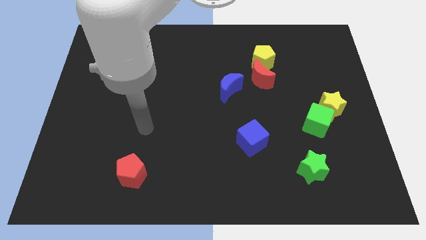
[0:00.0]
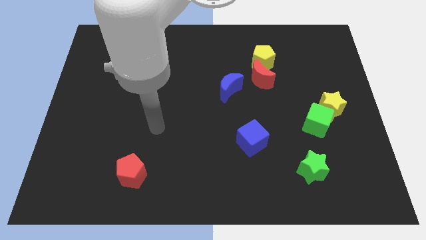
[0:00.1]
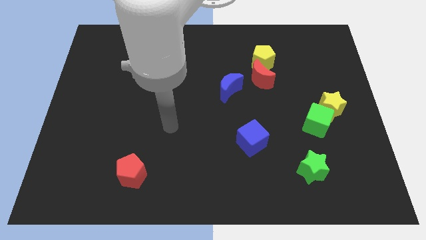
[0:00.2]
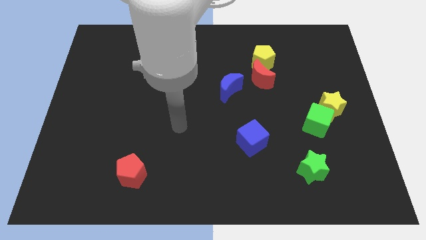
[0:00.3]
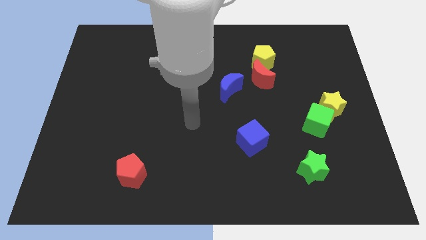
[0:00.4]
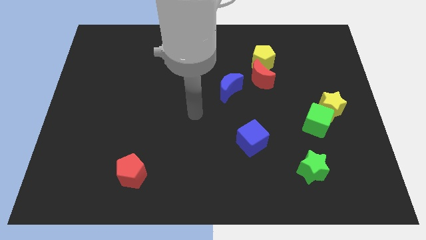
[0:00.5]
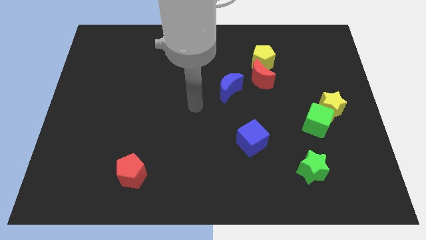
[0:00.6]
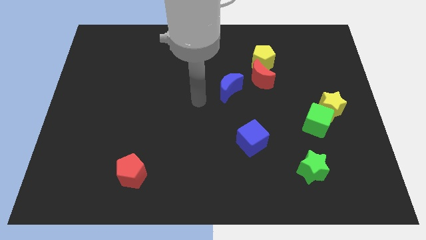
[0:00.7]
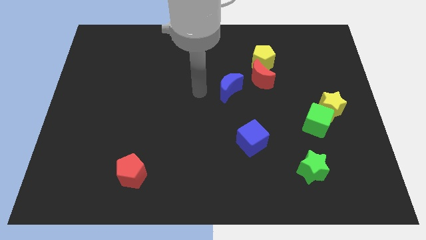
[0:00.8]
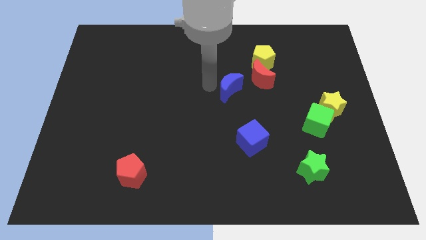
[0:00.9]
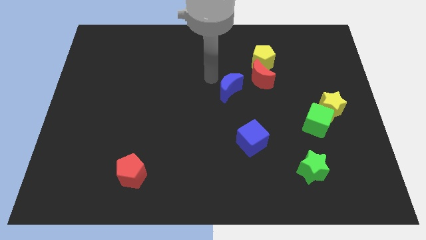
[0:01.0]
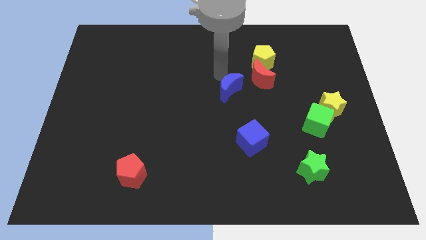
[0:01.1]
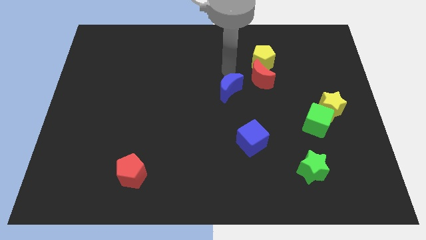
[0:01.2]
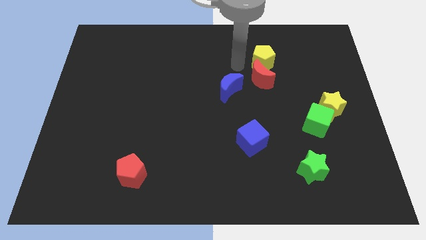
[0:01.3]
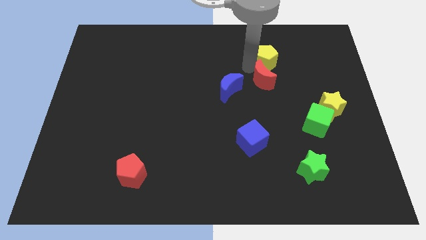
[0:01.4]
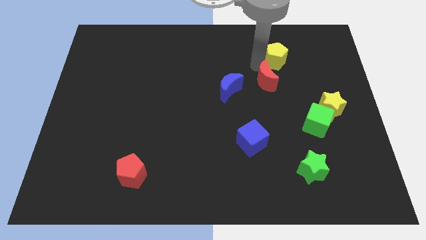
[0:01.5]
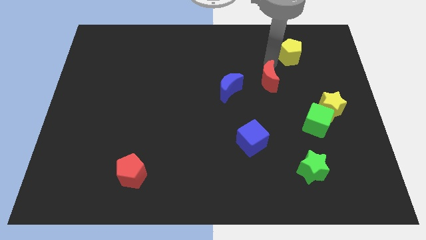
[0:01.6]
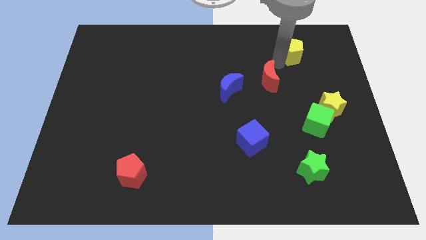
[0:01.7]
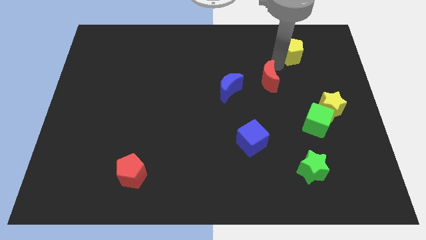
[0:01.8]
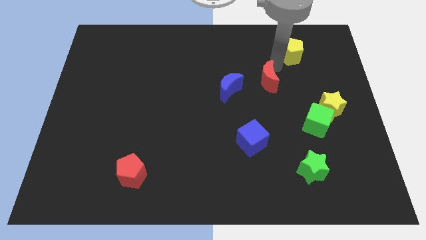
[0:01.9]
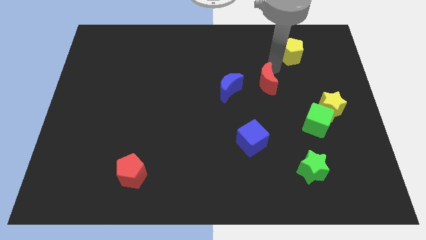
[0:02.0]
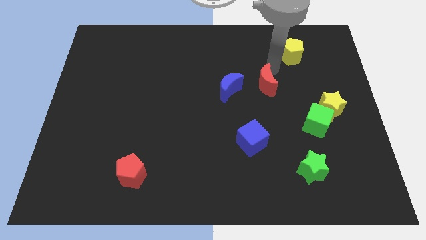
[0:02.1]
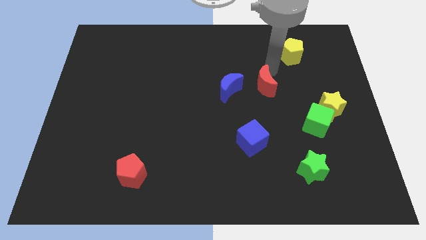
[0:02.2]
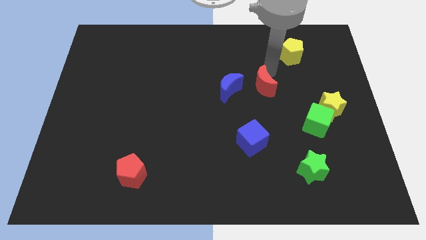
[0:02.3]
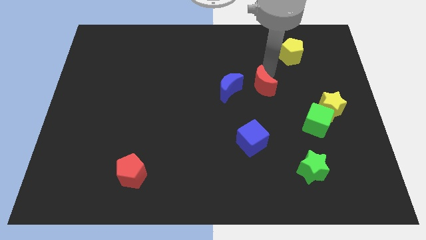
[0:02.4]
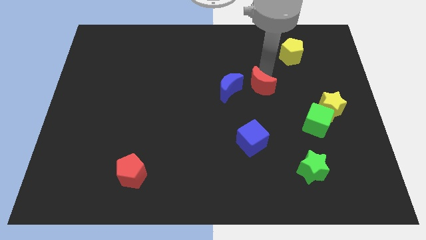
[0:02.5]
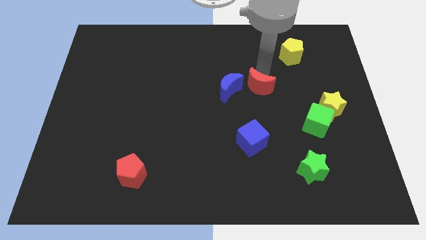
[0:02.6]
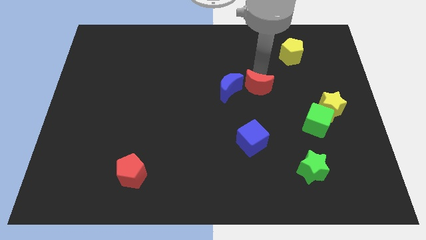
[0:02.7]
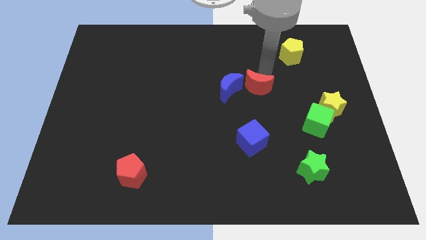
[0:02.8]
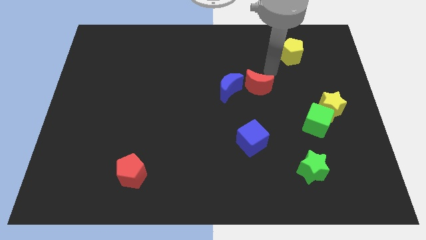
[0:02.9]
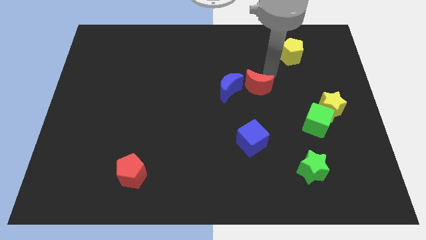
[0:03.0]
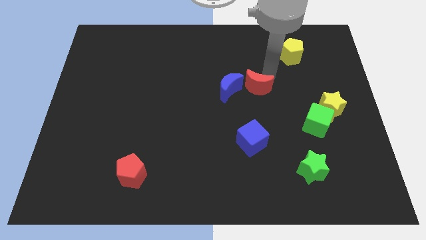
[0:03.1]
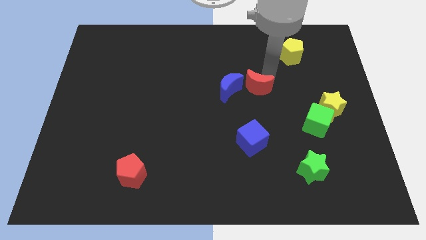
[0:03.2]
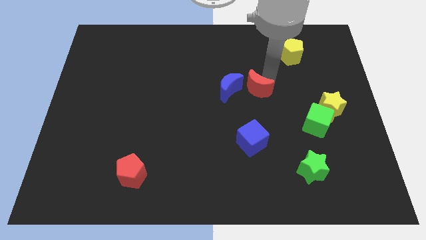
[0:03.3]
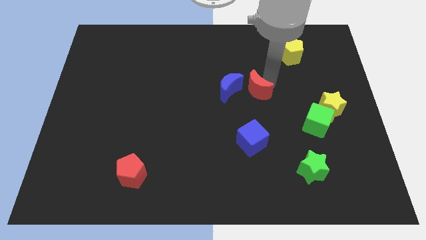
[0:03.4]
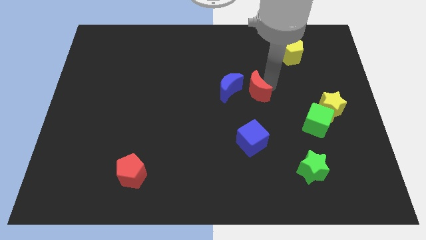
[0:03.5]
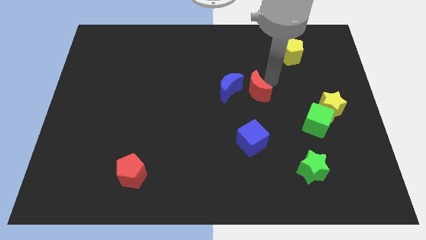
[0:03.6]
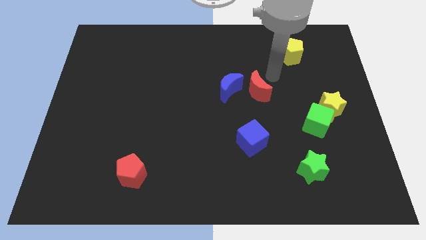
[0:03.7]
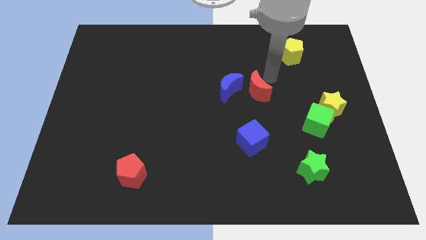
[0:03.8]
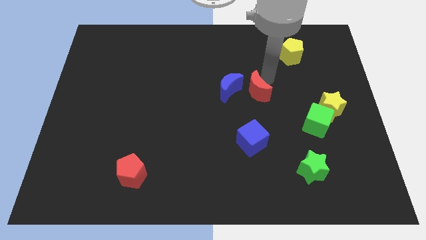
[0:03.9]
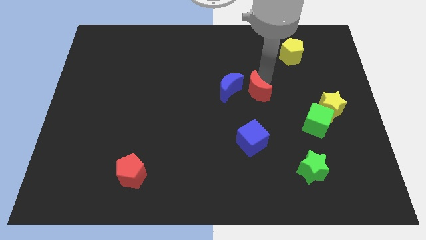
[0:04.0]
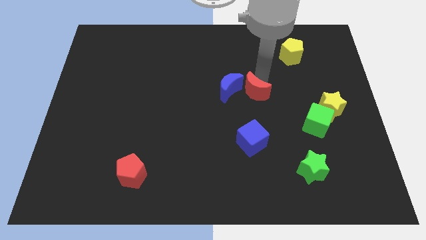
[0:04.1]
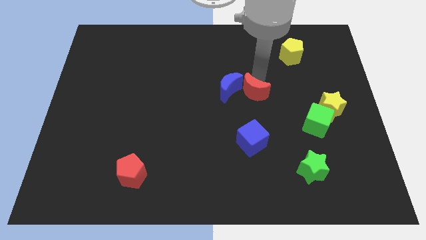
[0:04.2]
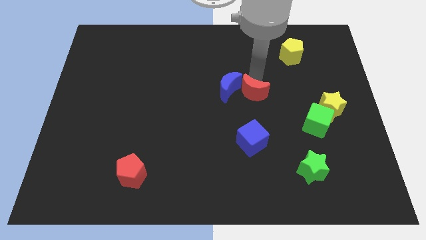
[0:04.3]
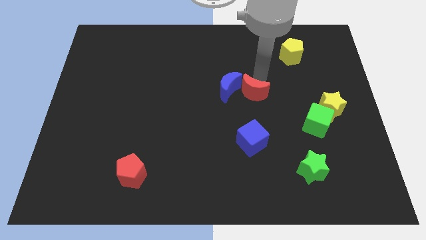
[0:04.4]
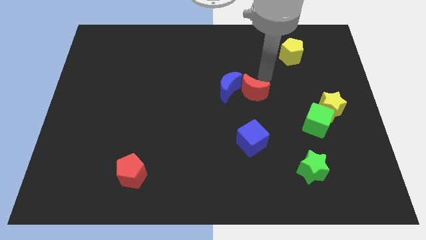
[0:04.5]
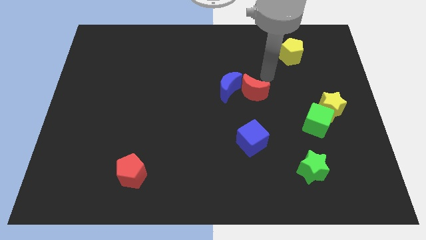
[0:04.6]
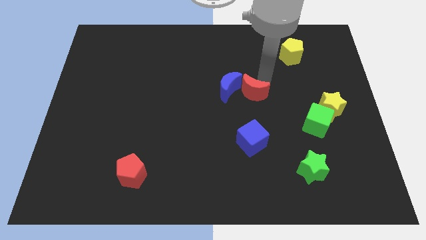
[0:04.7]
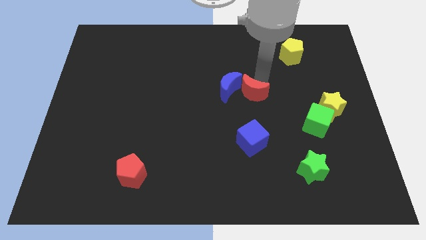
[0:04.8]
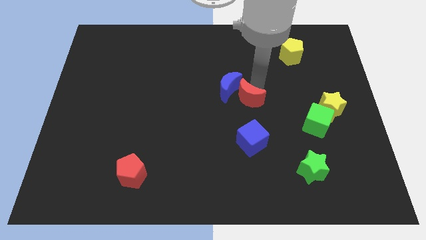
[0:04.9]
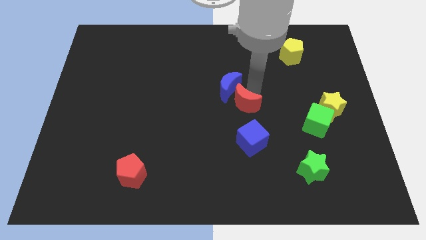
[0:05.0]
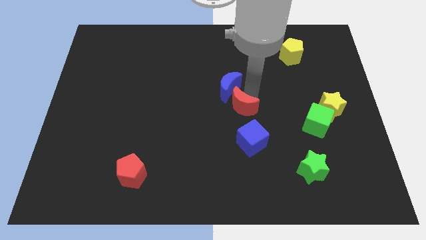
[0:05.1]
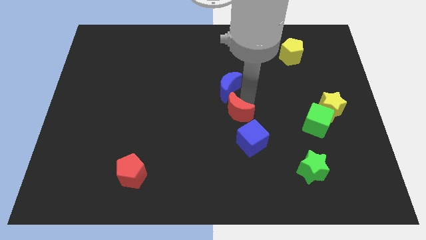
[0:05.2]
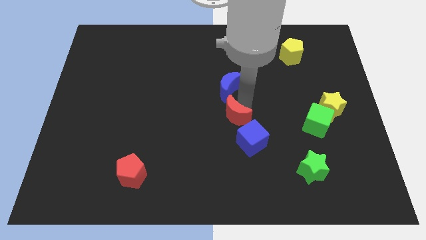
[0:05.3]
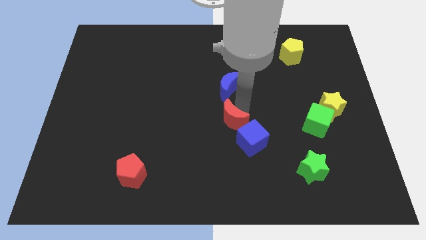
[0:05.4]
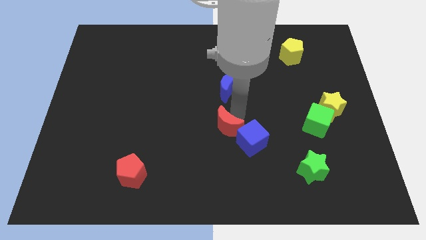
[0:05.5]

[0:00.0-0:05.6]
slide the red moon just left of the blue cube

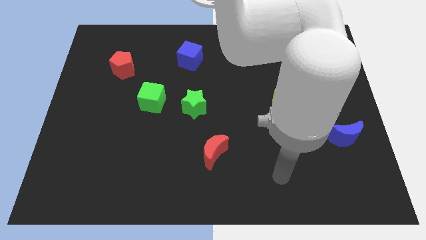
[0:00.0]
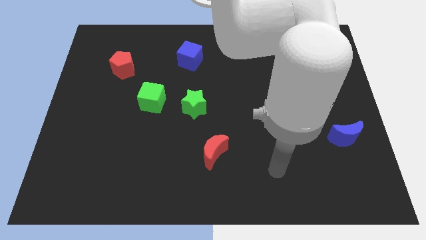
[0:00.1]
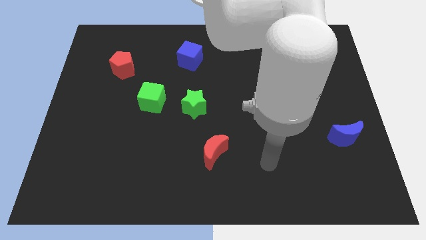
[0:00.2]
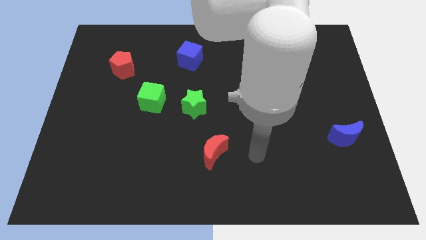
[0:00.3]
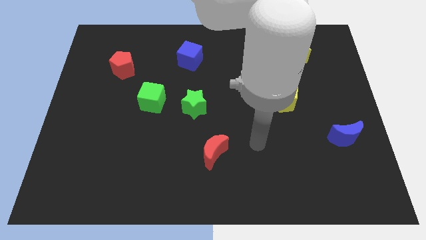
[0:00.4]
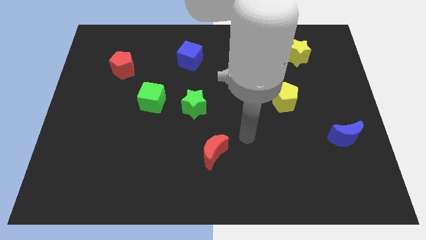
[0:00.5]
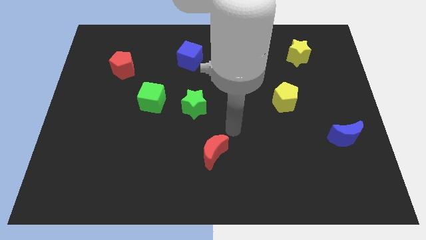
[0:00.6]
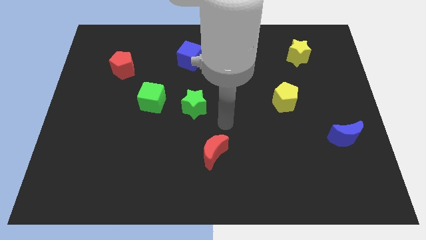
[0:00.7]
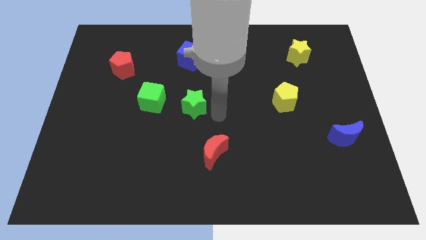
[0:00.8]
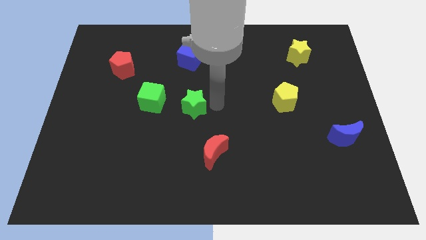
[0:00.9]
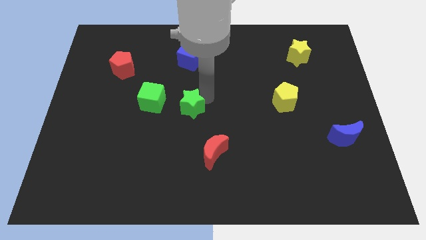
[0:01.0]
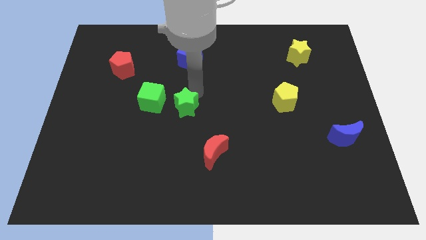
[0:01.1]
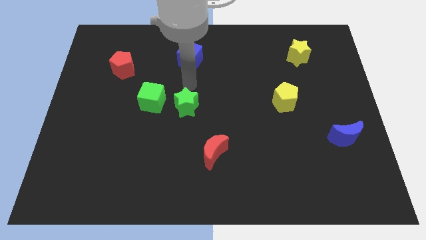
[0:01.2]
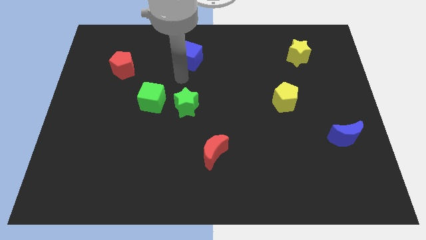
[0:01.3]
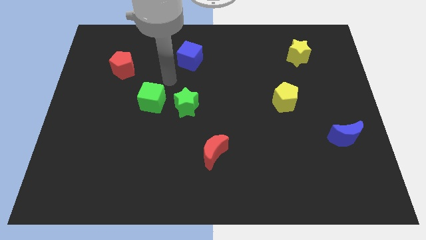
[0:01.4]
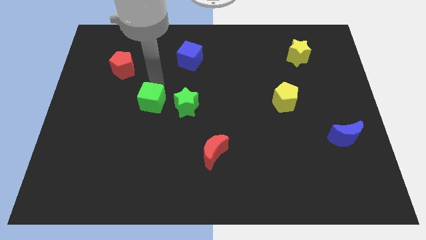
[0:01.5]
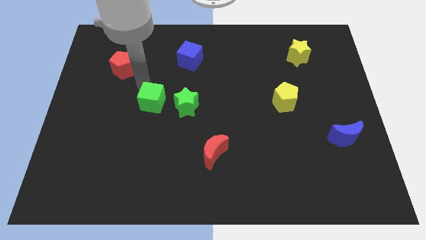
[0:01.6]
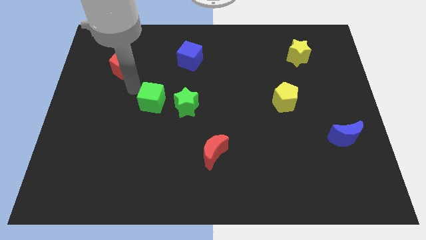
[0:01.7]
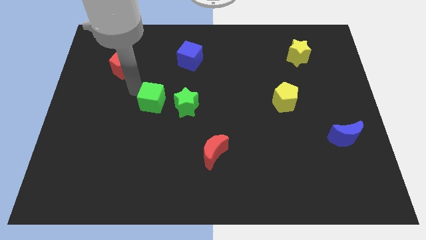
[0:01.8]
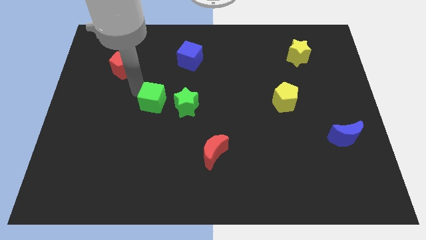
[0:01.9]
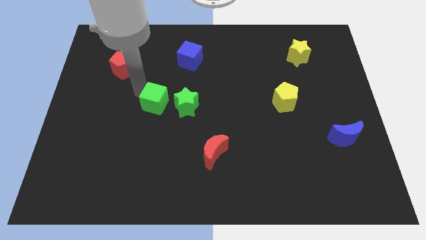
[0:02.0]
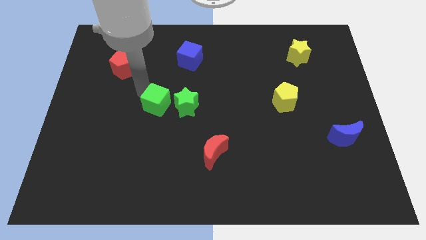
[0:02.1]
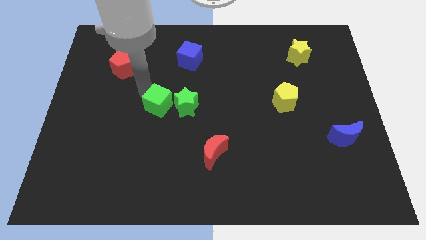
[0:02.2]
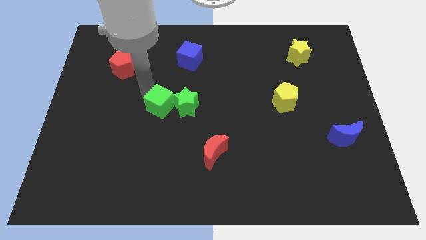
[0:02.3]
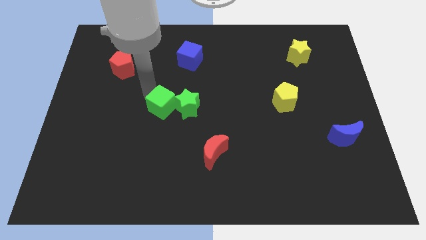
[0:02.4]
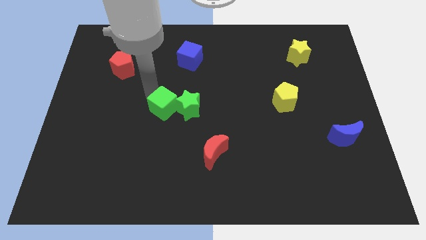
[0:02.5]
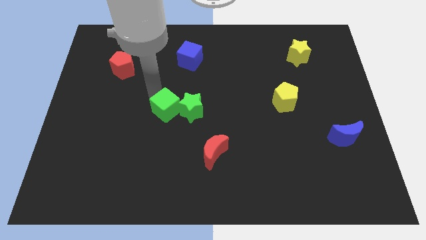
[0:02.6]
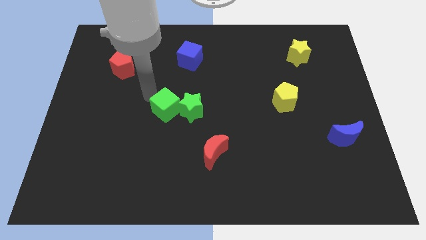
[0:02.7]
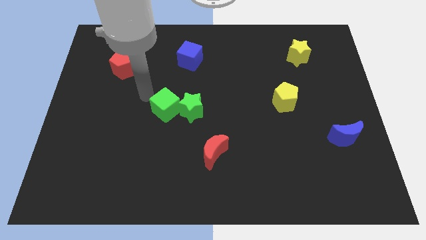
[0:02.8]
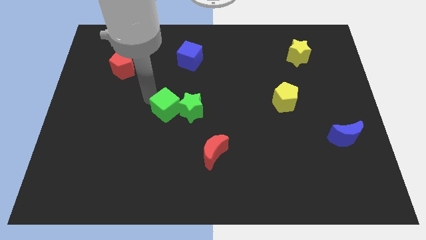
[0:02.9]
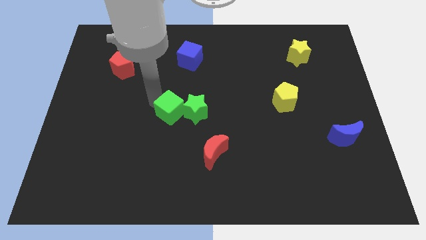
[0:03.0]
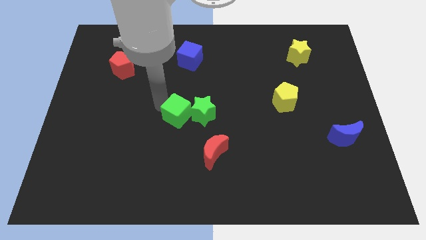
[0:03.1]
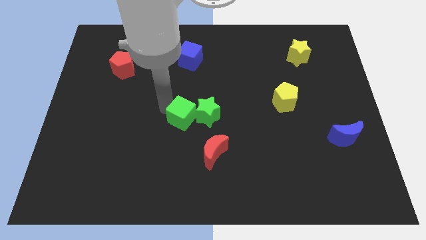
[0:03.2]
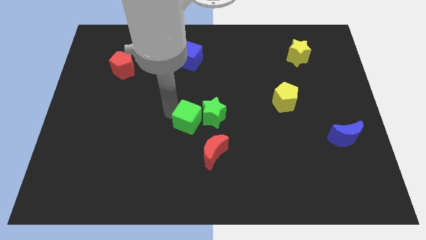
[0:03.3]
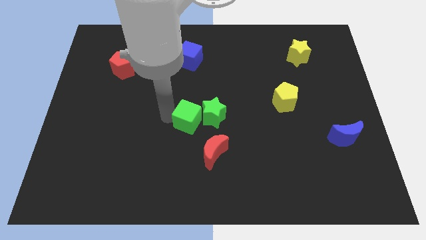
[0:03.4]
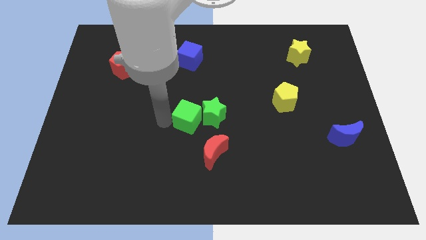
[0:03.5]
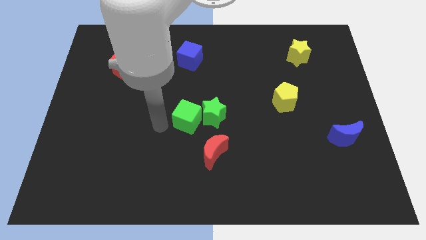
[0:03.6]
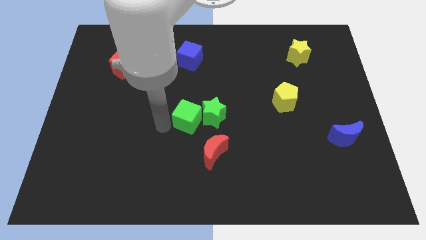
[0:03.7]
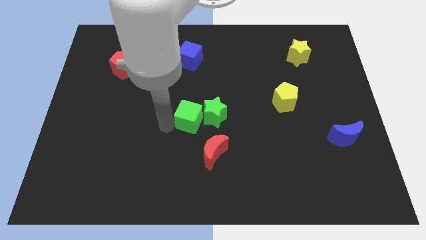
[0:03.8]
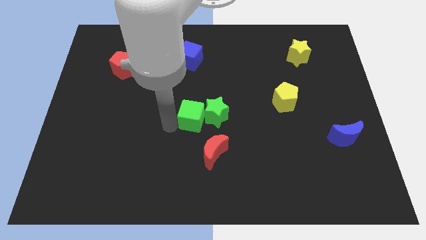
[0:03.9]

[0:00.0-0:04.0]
put the green cube above the red moon
